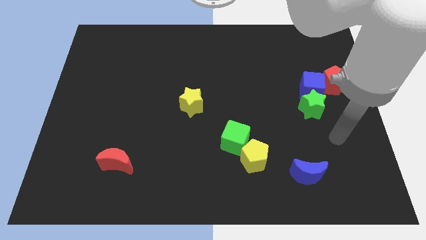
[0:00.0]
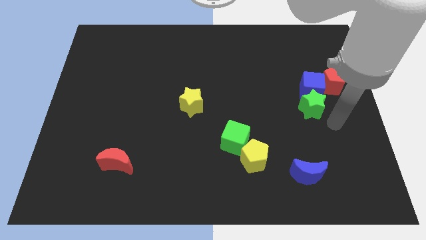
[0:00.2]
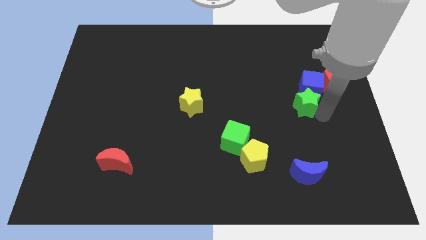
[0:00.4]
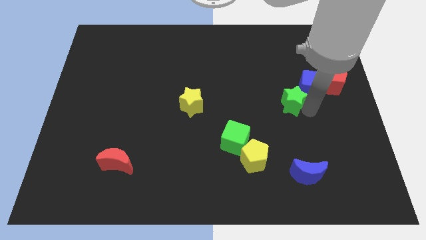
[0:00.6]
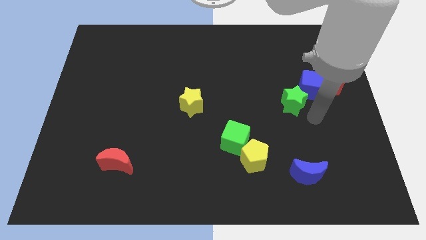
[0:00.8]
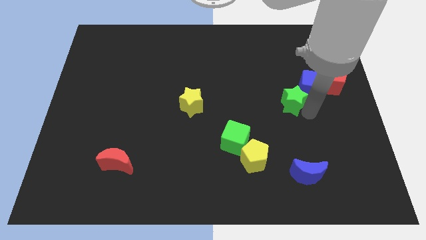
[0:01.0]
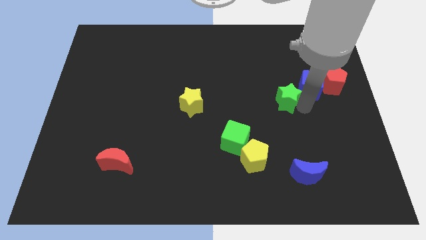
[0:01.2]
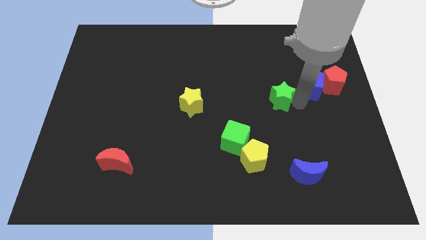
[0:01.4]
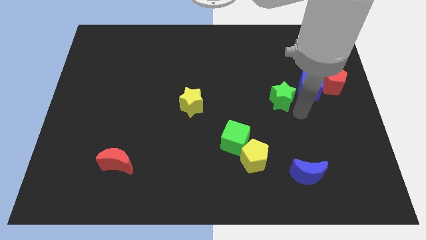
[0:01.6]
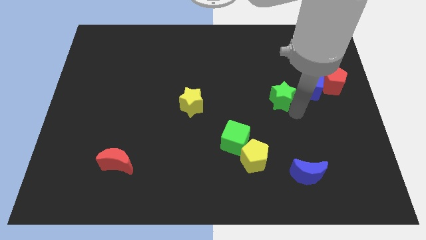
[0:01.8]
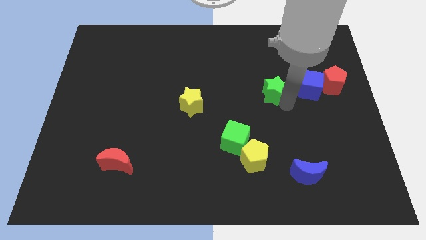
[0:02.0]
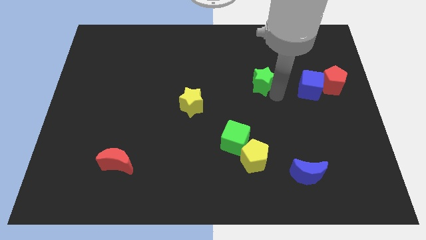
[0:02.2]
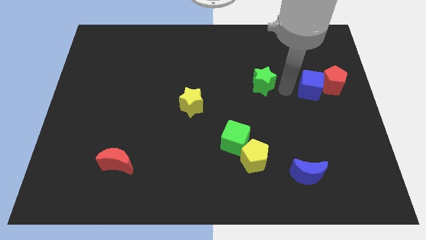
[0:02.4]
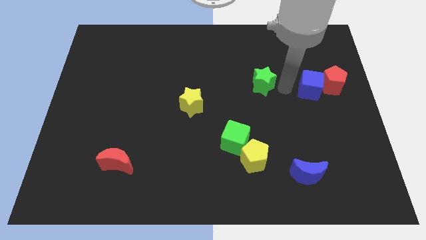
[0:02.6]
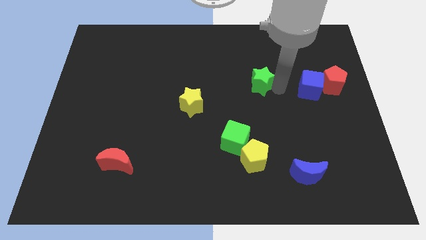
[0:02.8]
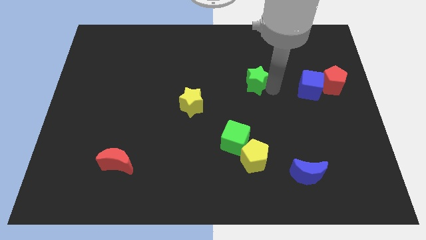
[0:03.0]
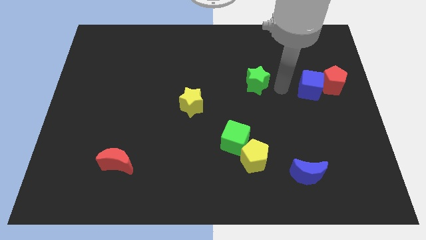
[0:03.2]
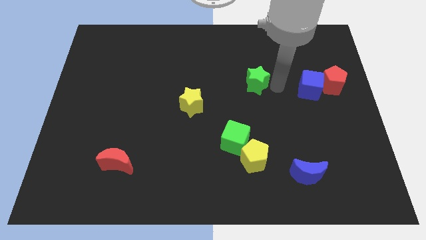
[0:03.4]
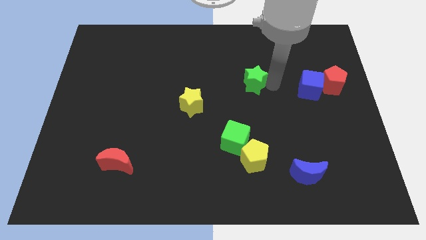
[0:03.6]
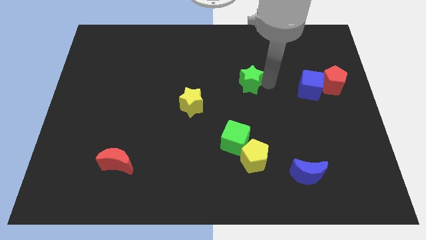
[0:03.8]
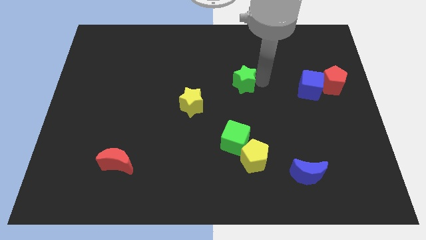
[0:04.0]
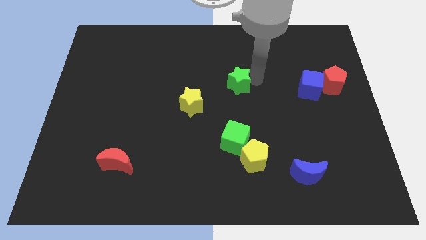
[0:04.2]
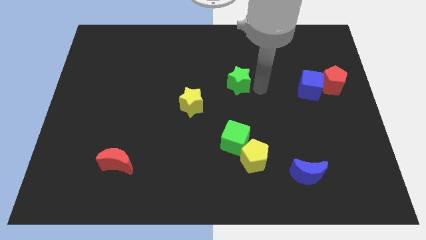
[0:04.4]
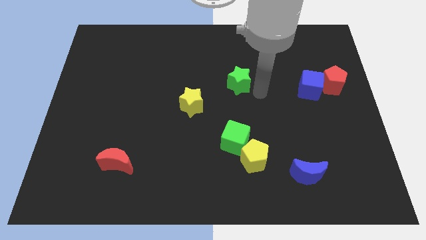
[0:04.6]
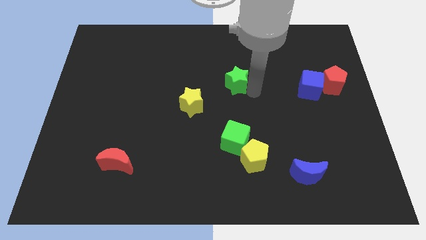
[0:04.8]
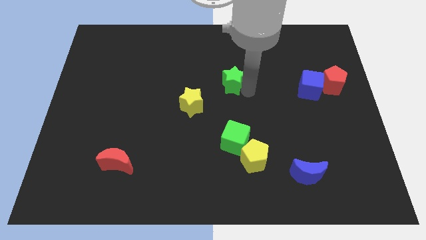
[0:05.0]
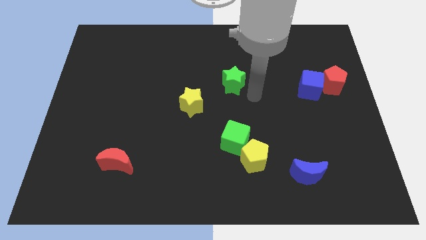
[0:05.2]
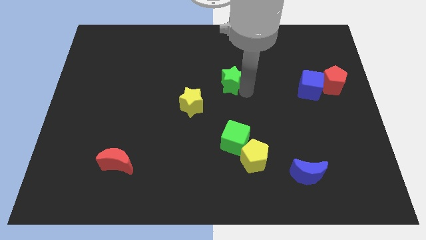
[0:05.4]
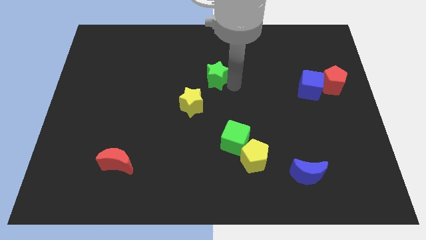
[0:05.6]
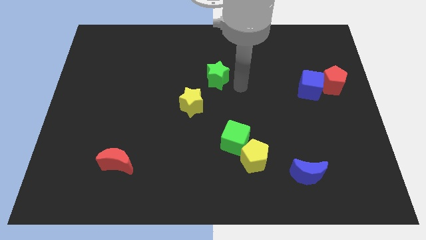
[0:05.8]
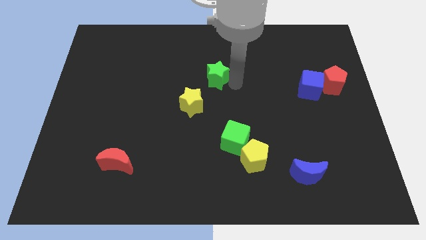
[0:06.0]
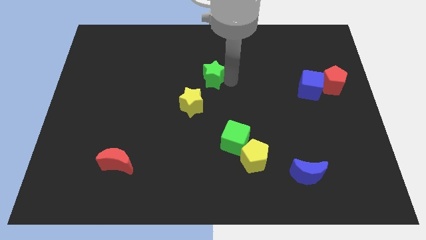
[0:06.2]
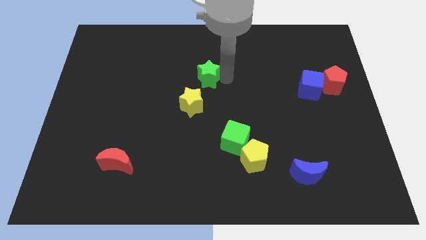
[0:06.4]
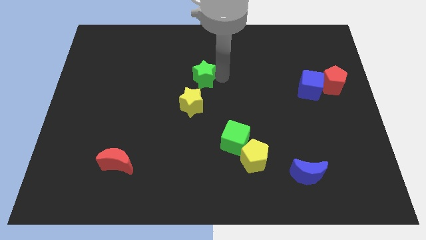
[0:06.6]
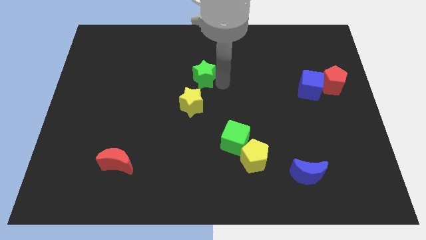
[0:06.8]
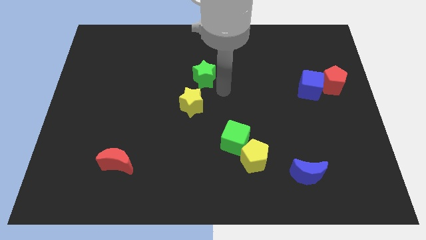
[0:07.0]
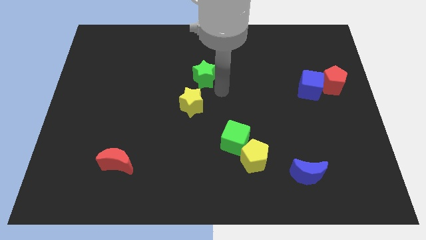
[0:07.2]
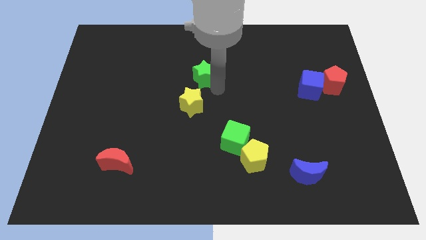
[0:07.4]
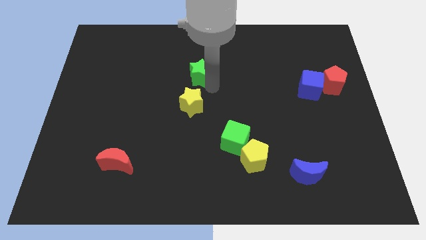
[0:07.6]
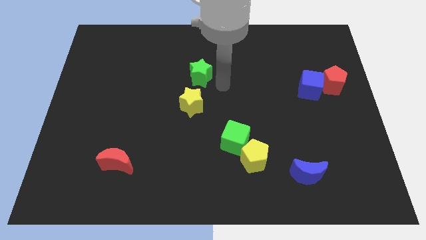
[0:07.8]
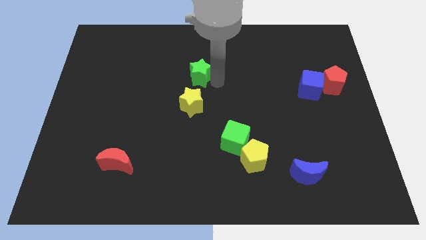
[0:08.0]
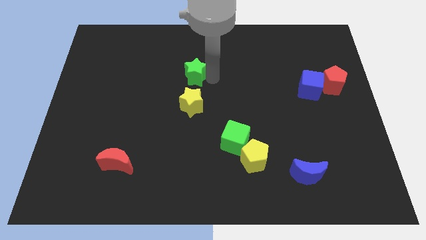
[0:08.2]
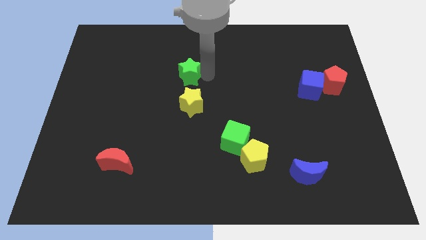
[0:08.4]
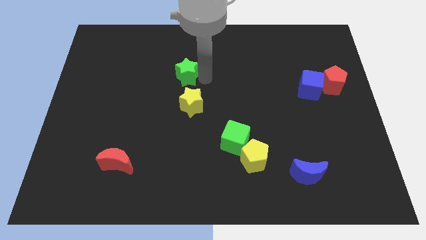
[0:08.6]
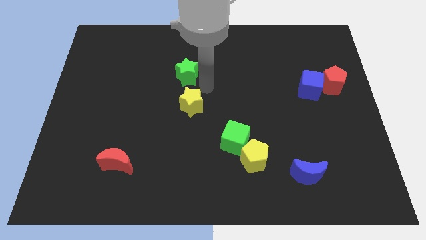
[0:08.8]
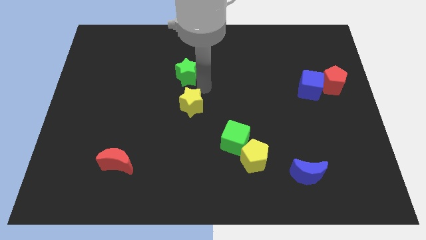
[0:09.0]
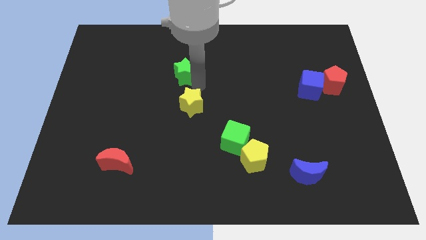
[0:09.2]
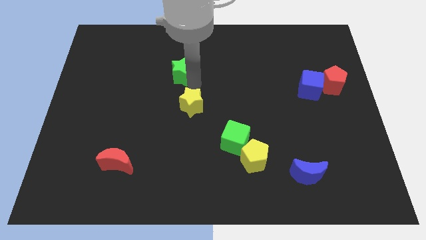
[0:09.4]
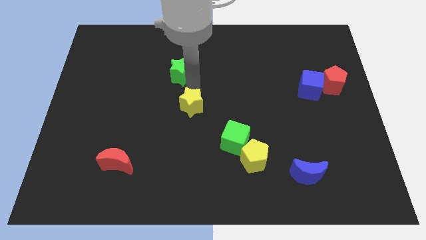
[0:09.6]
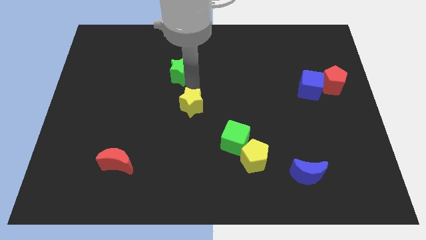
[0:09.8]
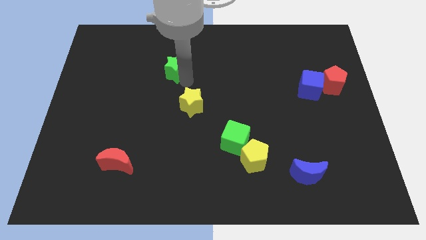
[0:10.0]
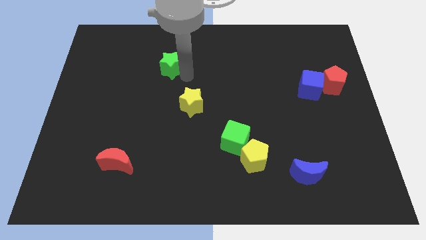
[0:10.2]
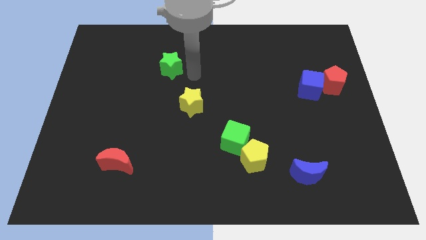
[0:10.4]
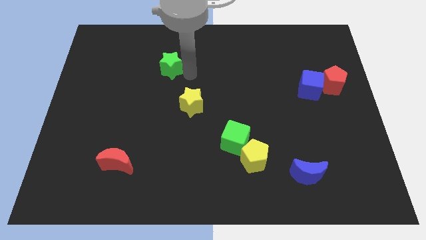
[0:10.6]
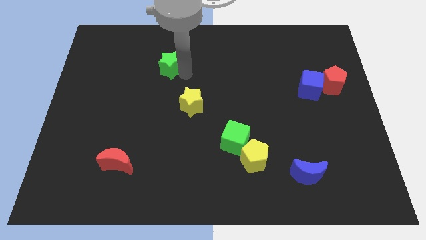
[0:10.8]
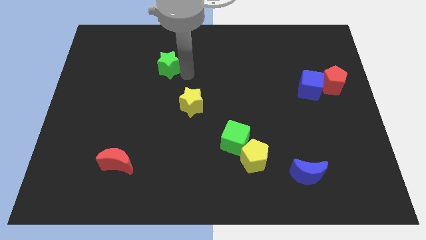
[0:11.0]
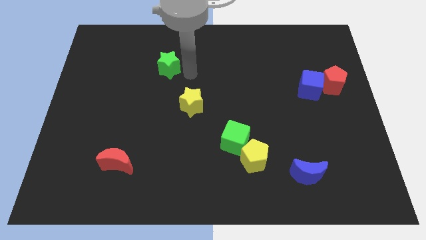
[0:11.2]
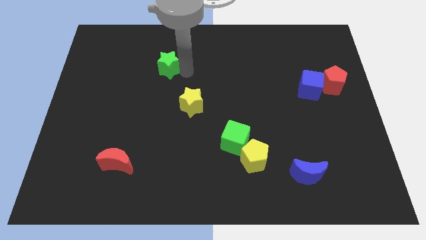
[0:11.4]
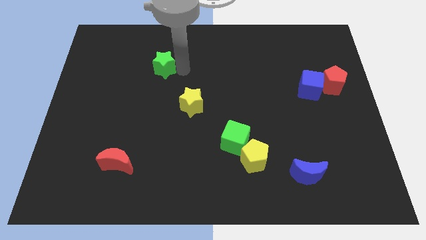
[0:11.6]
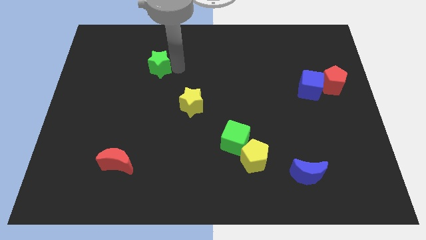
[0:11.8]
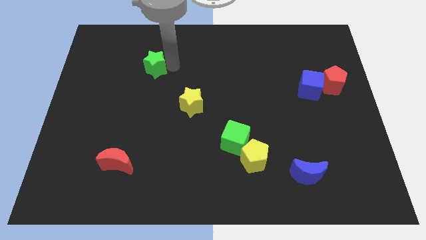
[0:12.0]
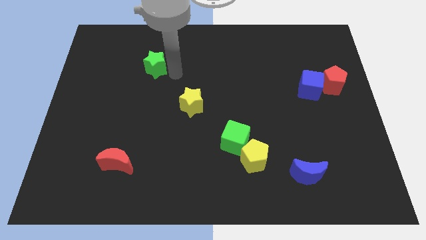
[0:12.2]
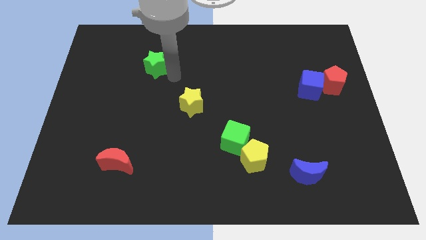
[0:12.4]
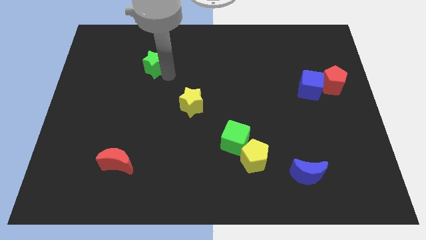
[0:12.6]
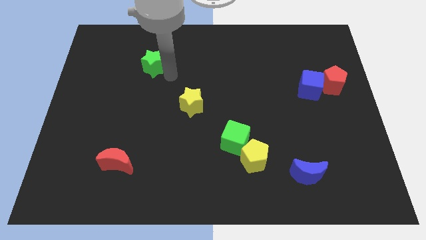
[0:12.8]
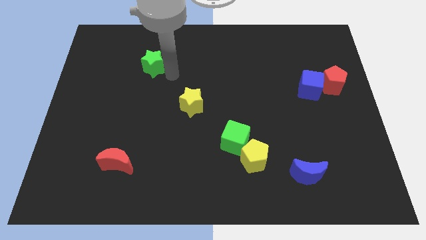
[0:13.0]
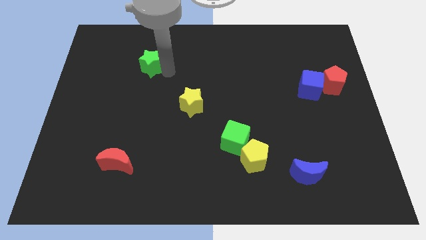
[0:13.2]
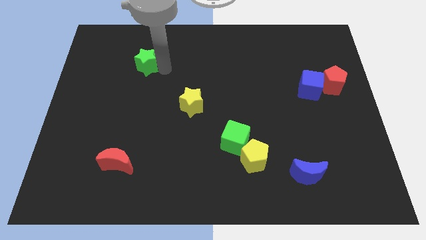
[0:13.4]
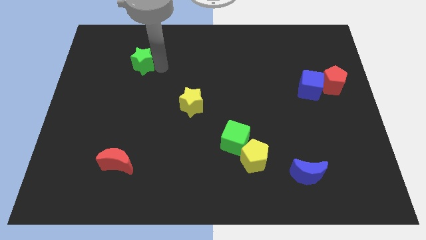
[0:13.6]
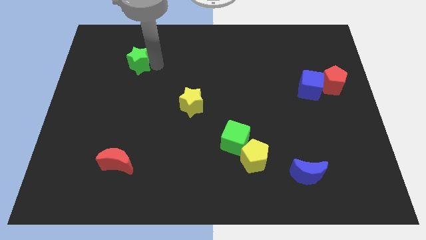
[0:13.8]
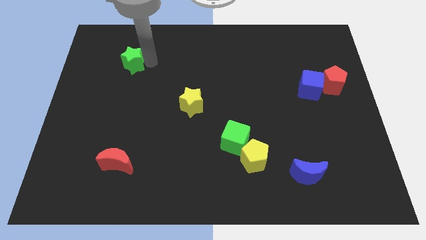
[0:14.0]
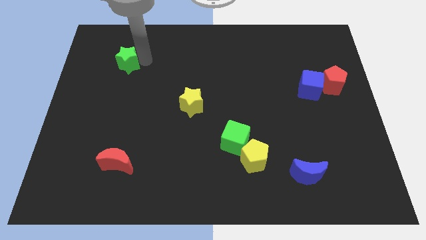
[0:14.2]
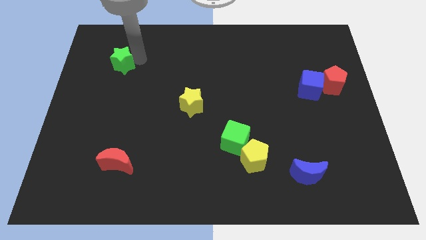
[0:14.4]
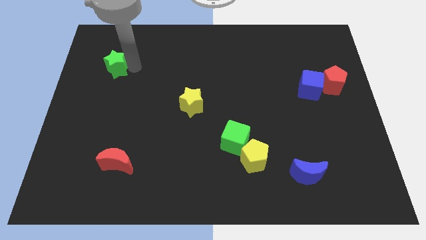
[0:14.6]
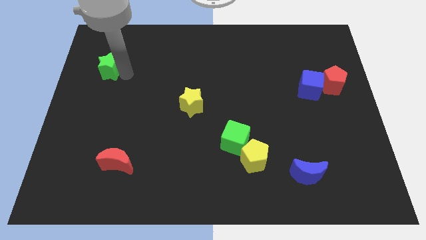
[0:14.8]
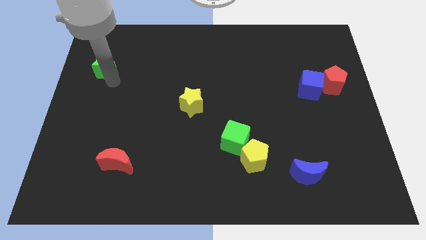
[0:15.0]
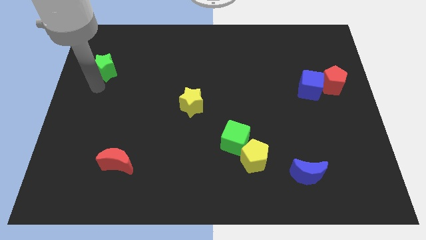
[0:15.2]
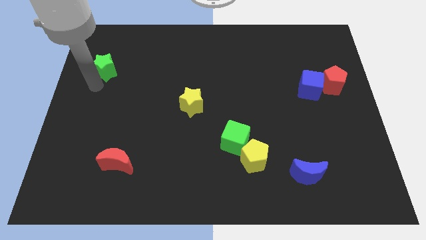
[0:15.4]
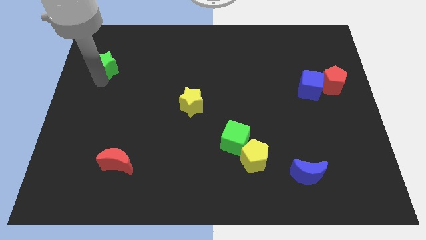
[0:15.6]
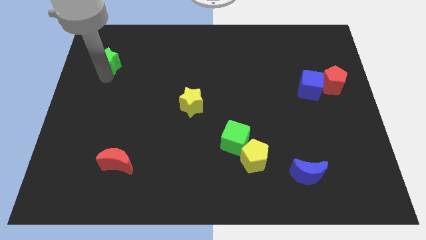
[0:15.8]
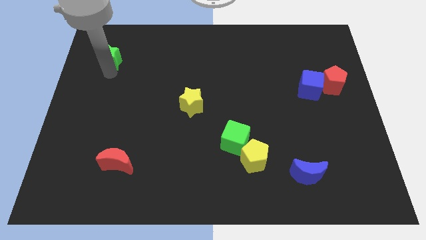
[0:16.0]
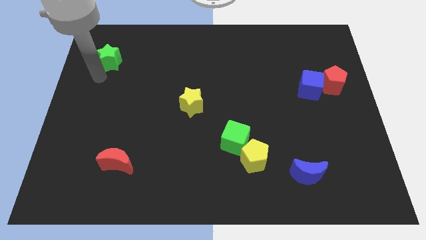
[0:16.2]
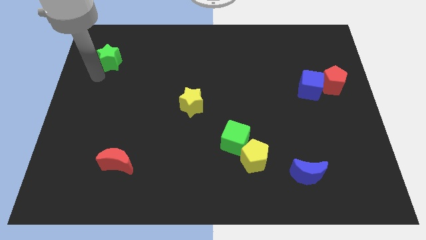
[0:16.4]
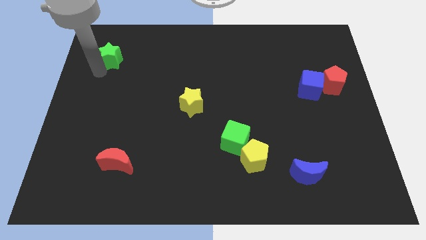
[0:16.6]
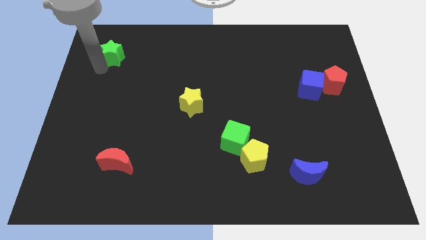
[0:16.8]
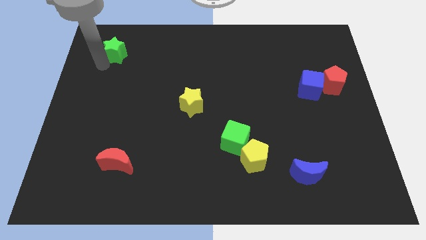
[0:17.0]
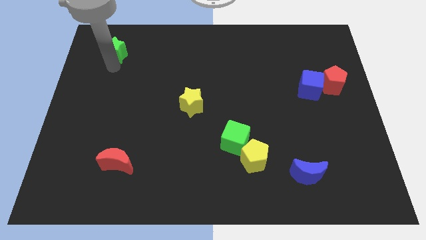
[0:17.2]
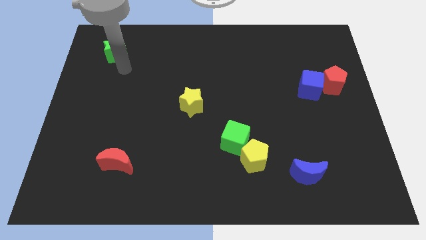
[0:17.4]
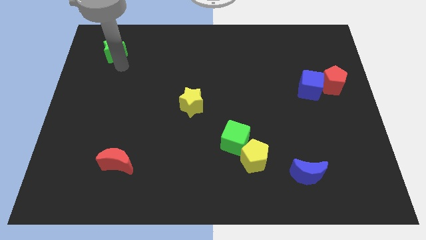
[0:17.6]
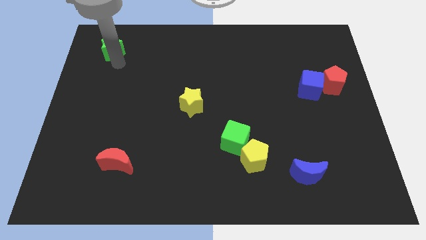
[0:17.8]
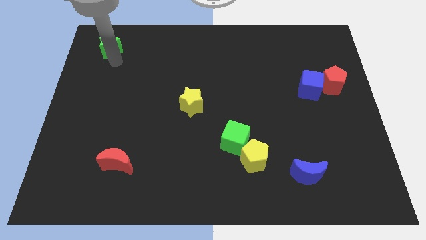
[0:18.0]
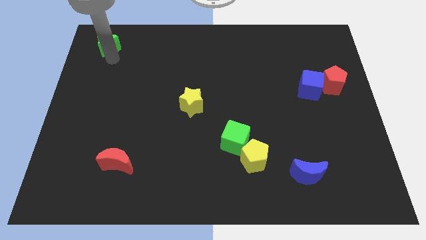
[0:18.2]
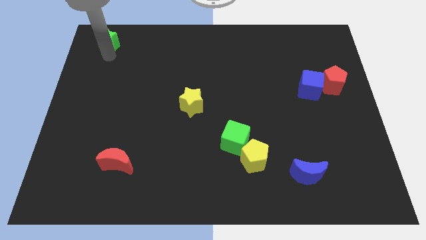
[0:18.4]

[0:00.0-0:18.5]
put the green star to the top left corner
